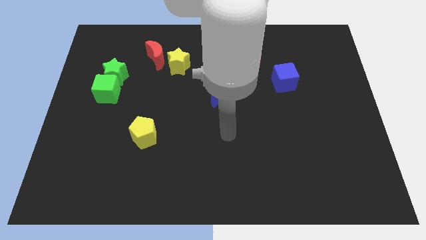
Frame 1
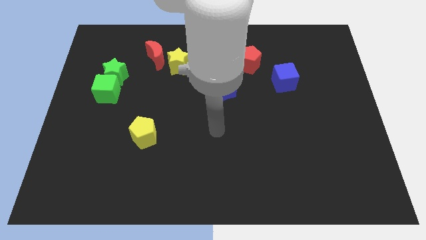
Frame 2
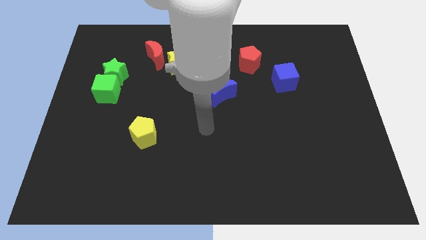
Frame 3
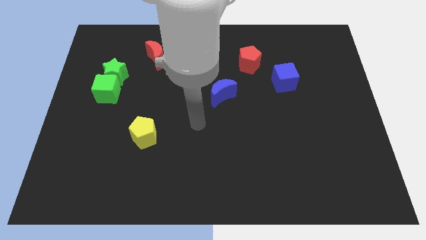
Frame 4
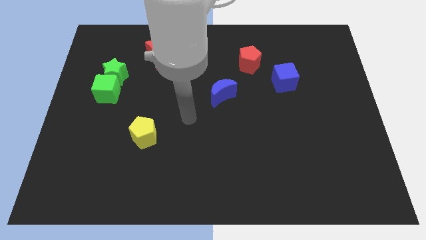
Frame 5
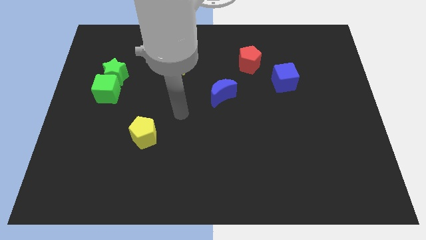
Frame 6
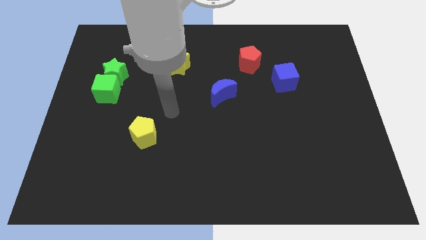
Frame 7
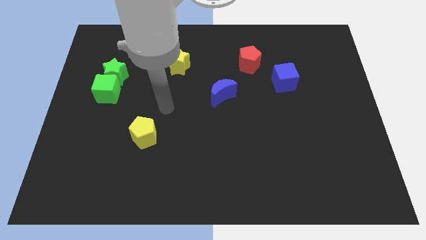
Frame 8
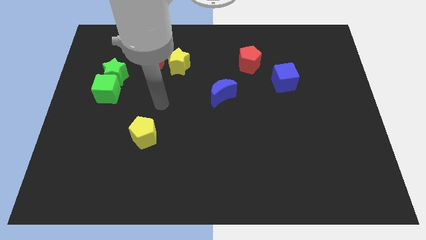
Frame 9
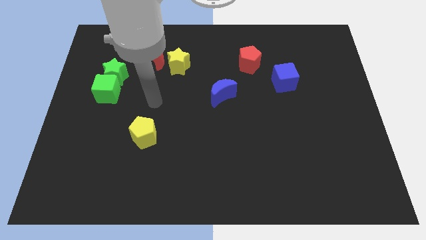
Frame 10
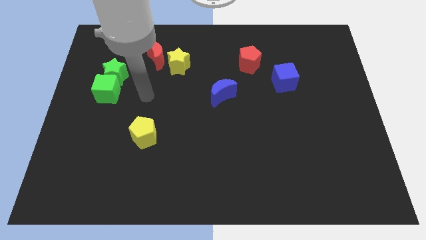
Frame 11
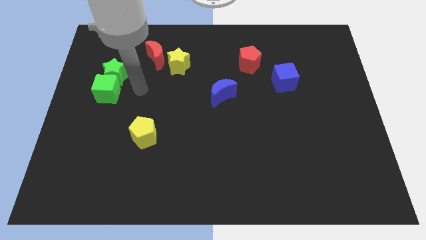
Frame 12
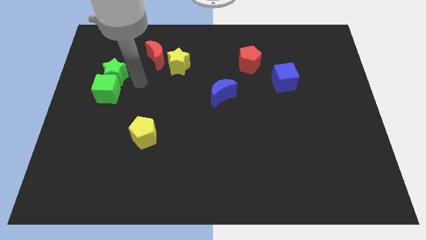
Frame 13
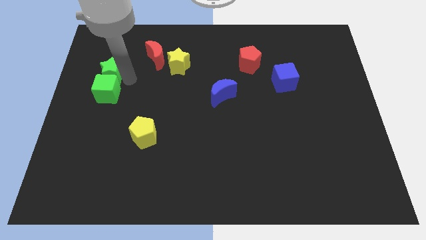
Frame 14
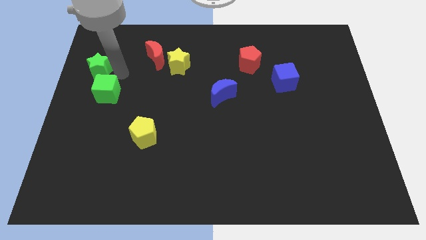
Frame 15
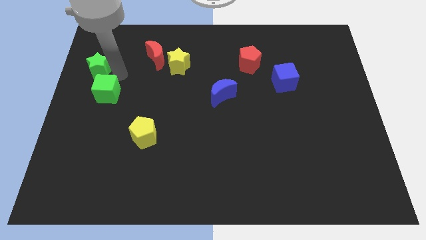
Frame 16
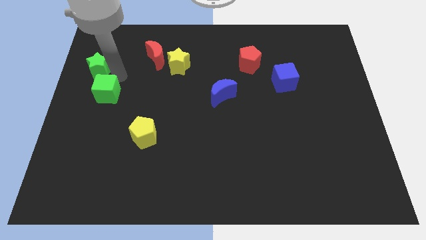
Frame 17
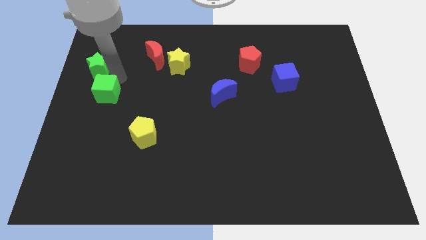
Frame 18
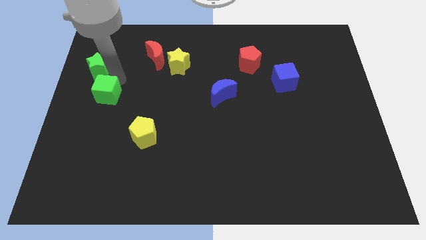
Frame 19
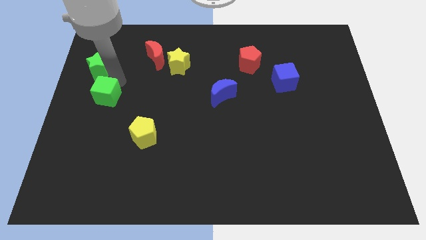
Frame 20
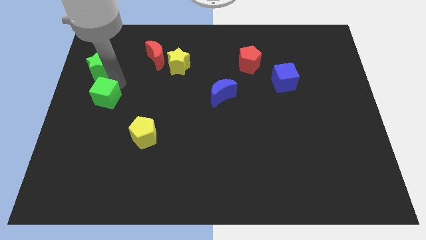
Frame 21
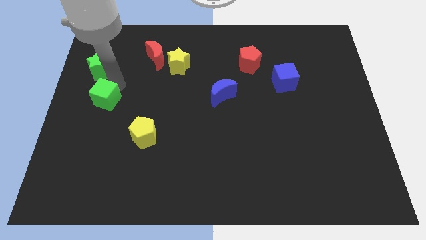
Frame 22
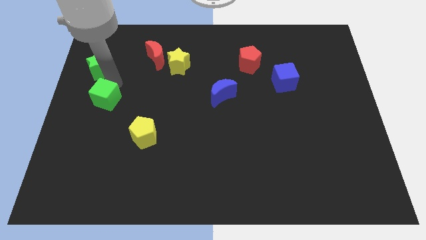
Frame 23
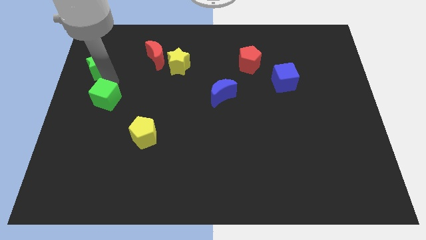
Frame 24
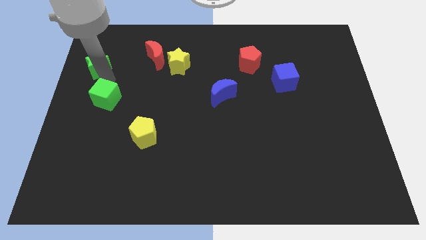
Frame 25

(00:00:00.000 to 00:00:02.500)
separate the green cube from the green star

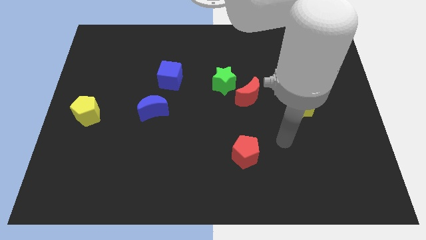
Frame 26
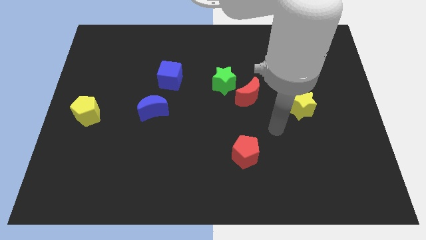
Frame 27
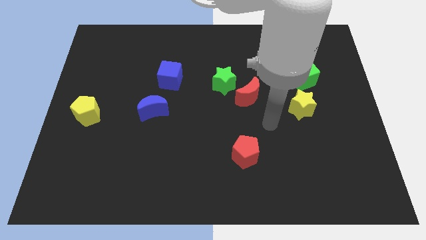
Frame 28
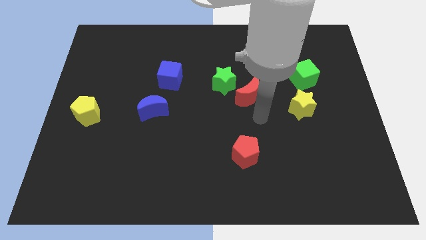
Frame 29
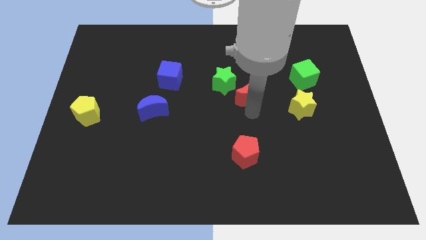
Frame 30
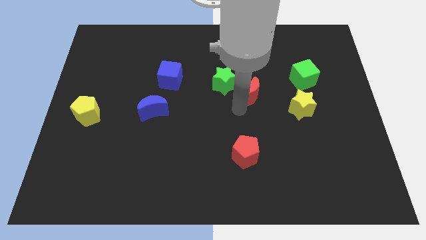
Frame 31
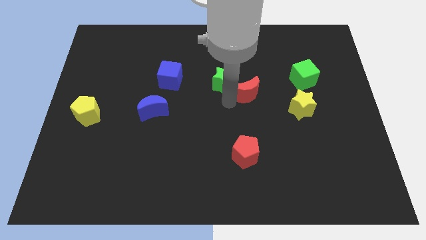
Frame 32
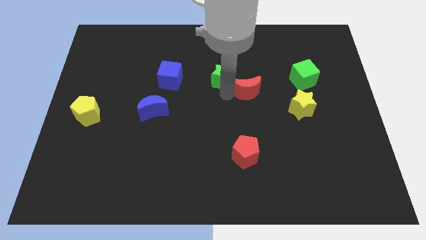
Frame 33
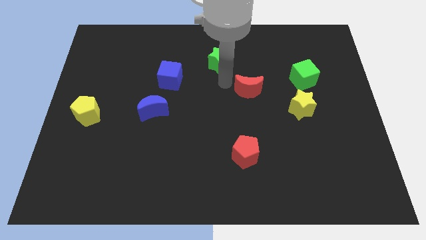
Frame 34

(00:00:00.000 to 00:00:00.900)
separate the red moon from the green star

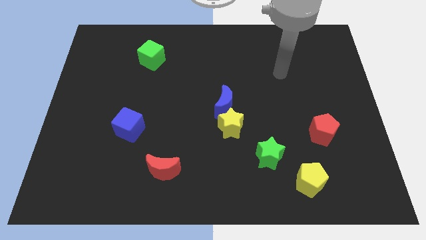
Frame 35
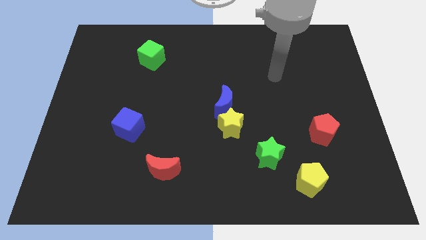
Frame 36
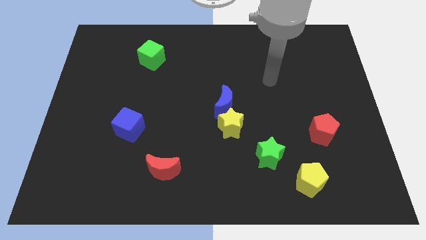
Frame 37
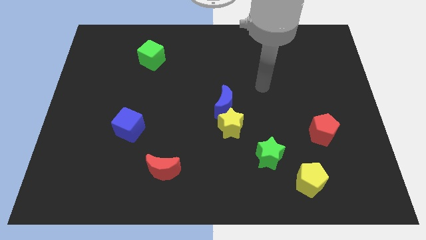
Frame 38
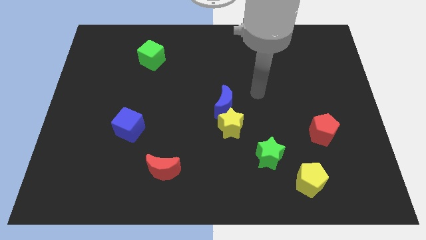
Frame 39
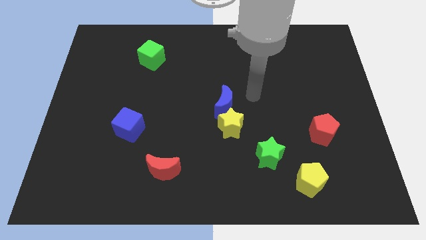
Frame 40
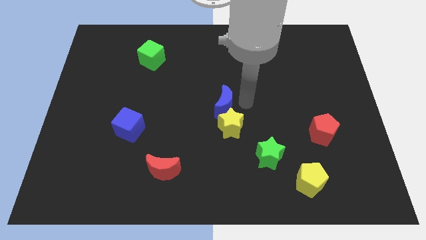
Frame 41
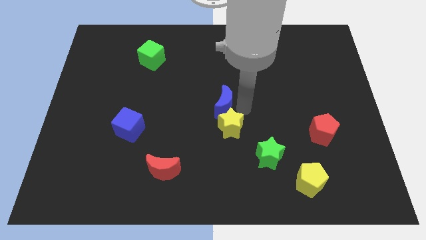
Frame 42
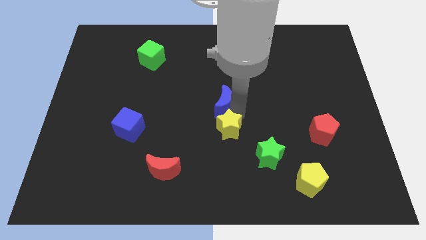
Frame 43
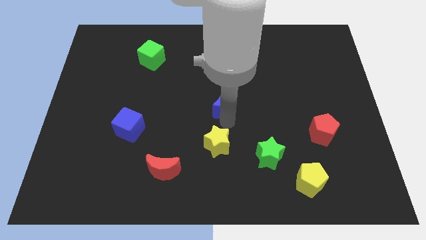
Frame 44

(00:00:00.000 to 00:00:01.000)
move the blue moon away from the yellow star

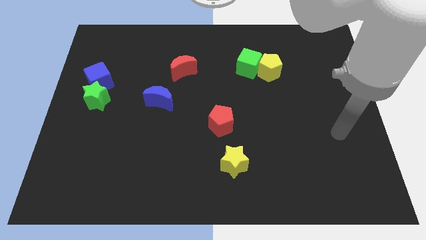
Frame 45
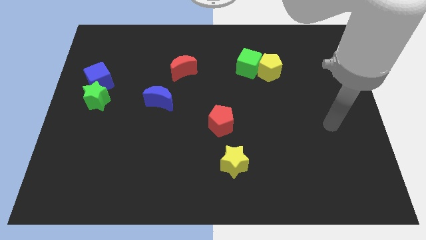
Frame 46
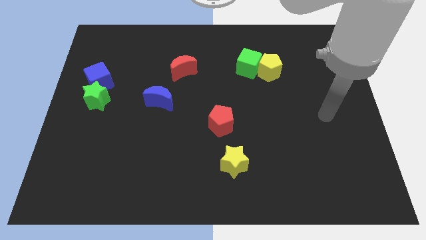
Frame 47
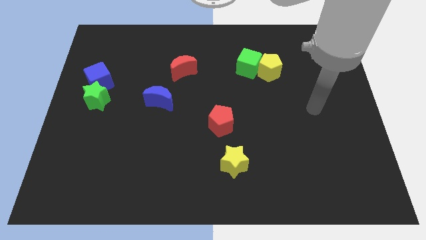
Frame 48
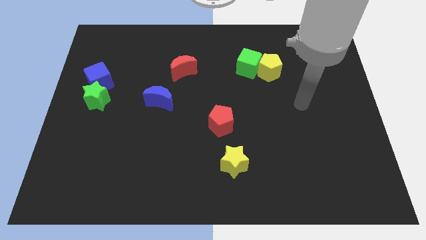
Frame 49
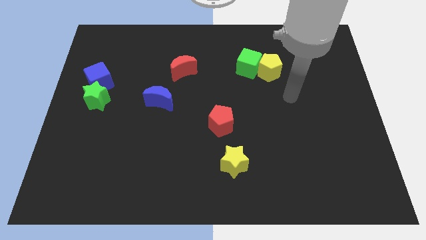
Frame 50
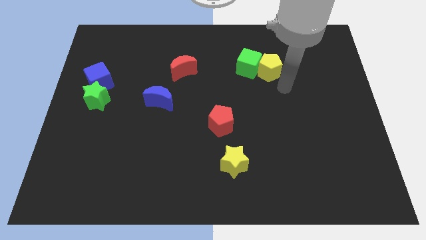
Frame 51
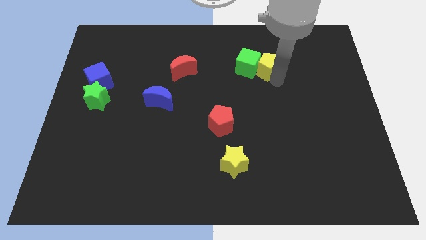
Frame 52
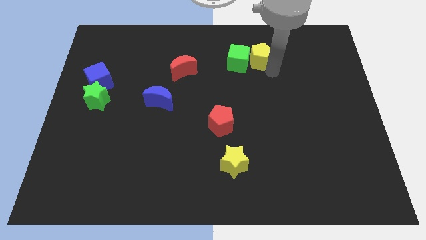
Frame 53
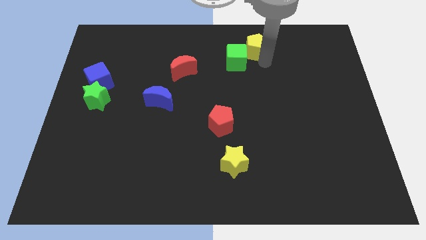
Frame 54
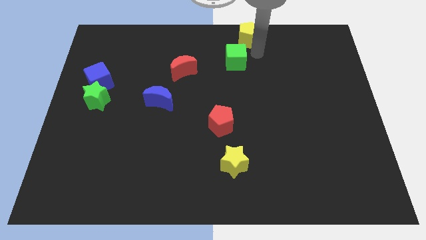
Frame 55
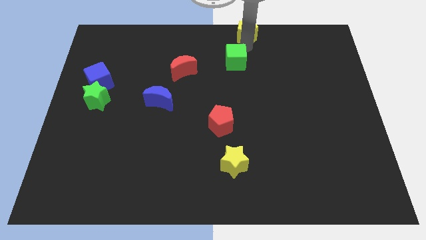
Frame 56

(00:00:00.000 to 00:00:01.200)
separate the green cube from the yellow pentagon

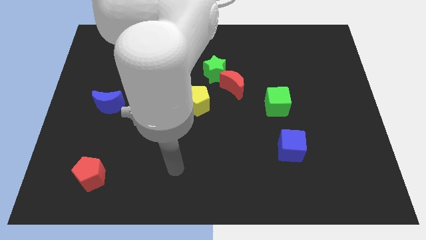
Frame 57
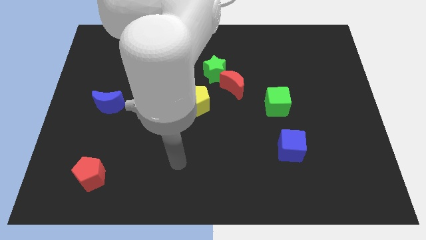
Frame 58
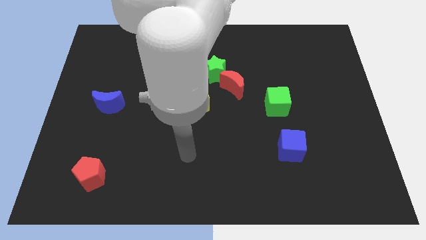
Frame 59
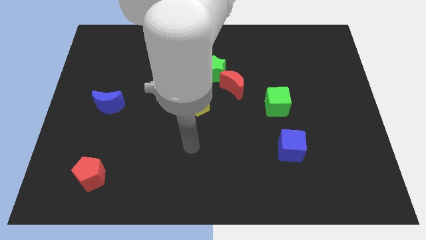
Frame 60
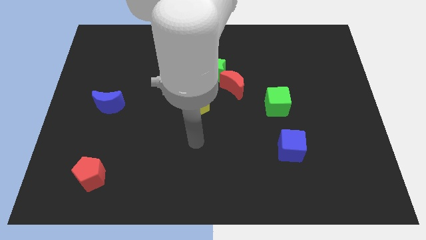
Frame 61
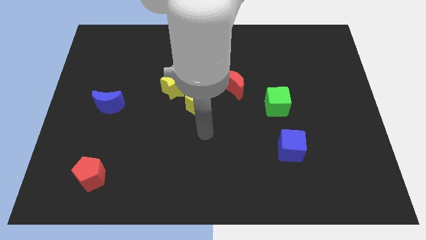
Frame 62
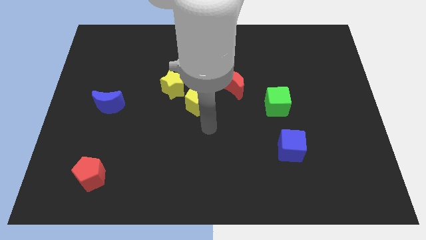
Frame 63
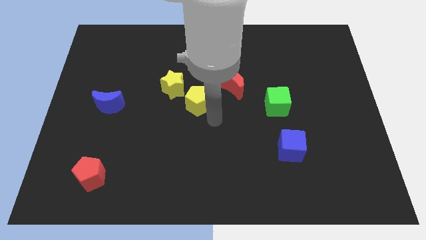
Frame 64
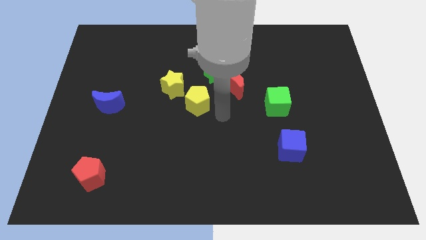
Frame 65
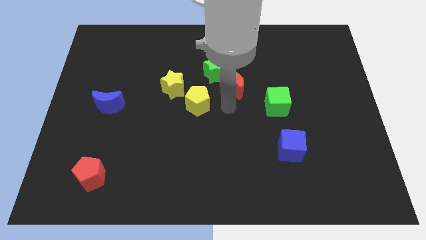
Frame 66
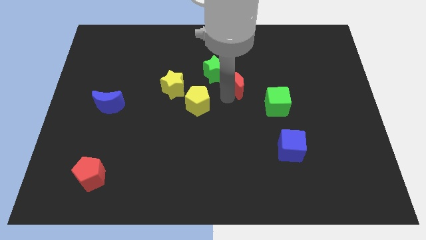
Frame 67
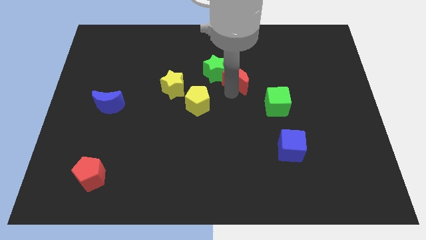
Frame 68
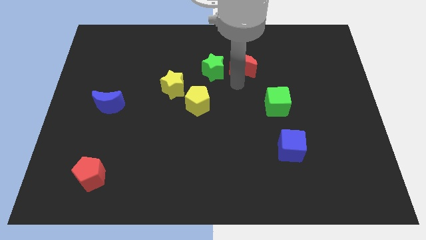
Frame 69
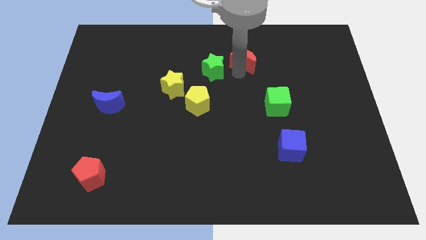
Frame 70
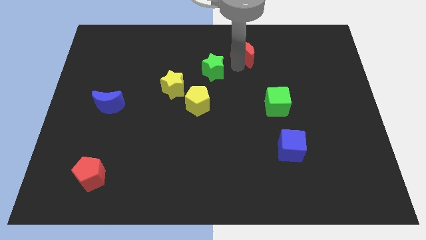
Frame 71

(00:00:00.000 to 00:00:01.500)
move the green star away from the red moon

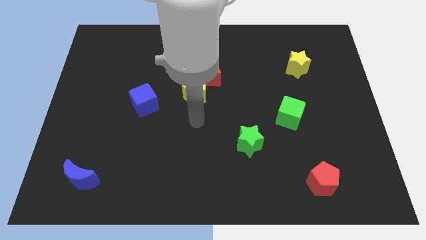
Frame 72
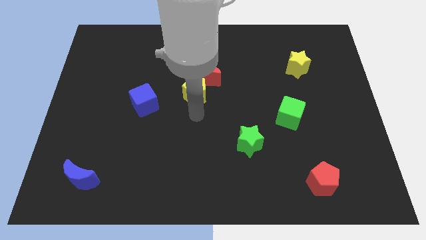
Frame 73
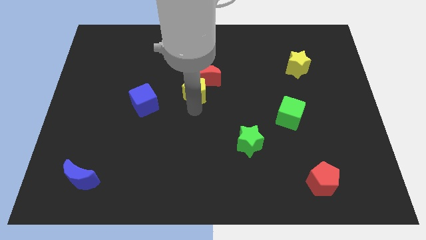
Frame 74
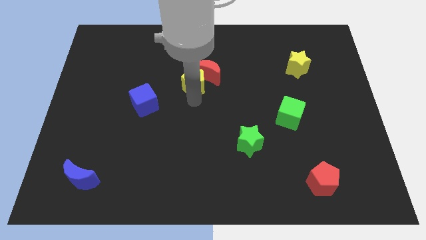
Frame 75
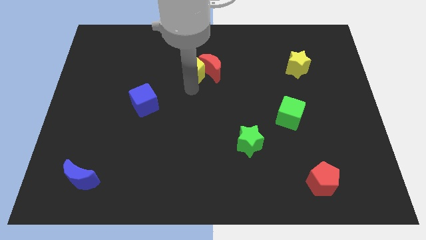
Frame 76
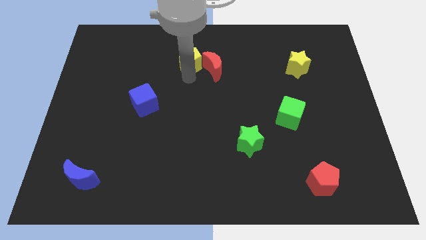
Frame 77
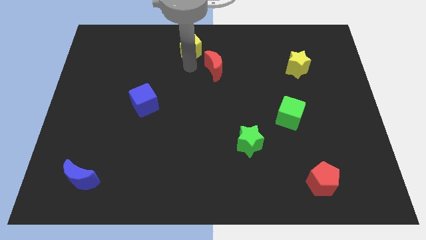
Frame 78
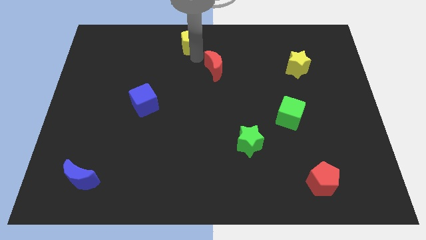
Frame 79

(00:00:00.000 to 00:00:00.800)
separate the red moon from the yellow pentagon

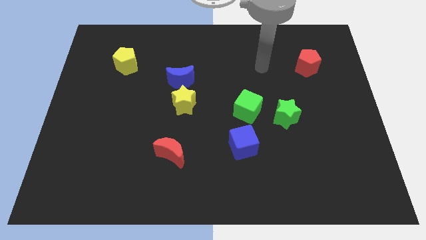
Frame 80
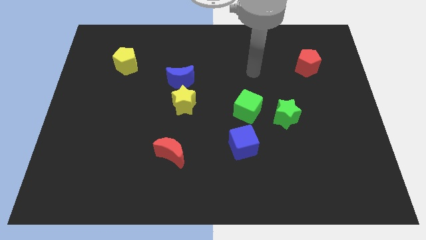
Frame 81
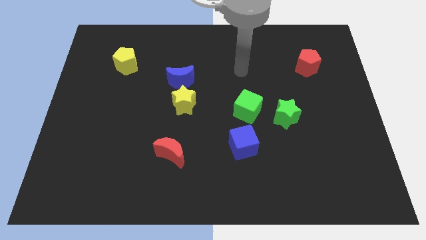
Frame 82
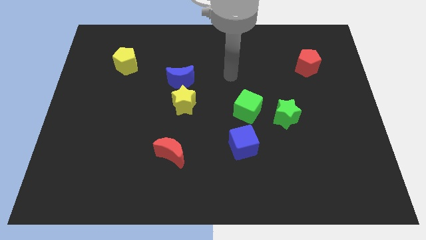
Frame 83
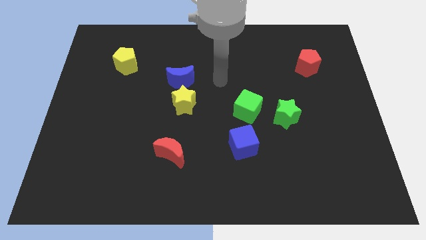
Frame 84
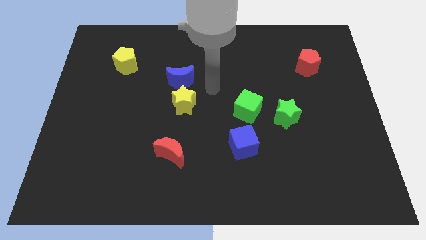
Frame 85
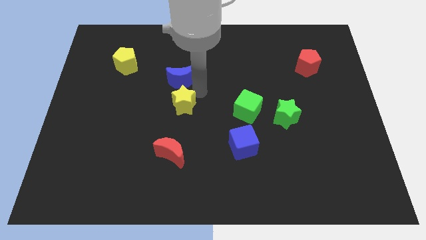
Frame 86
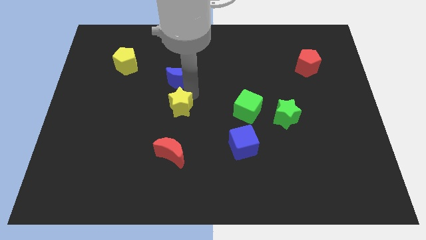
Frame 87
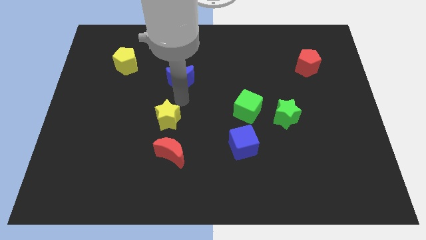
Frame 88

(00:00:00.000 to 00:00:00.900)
separate the blue moon from the yellow star

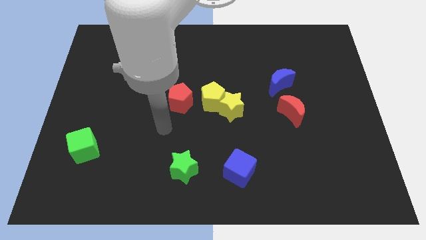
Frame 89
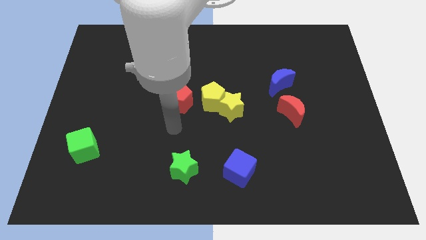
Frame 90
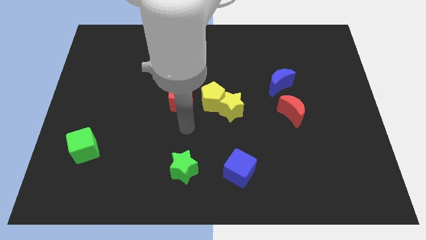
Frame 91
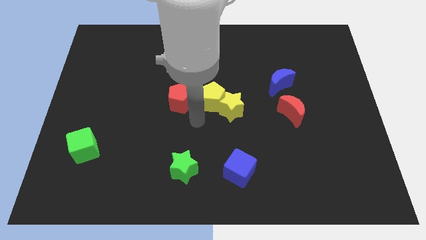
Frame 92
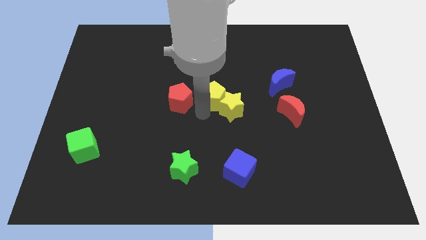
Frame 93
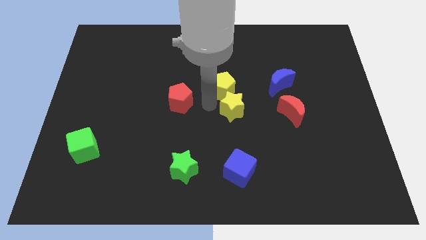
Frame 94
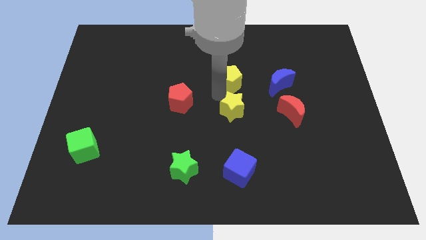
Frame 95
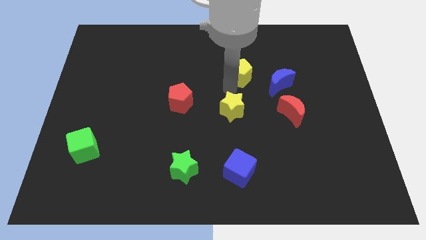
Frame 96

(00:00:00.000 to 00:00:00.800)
pull the yellow star apart from the yellow pentagon
